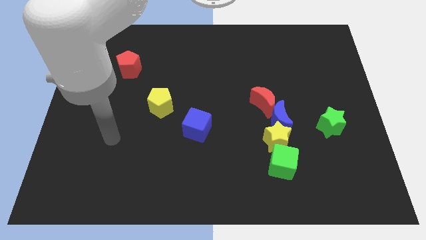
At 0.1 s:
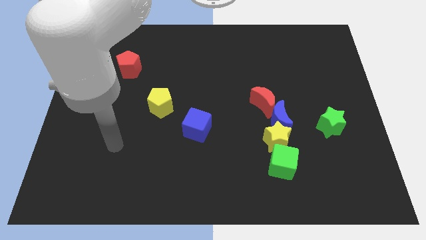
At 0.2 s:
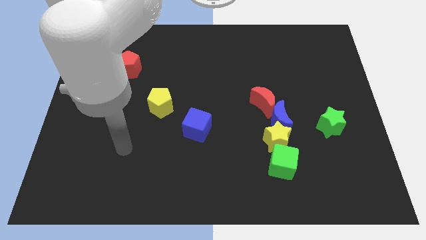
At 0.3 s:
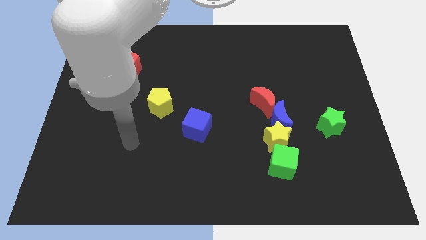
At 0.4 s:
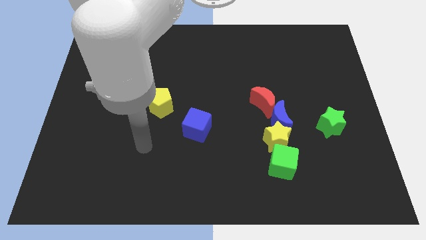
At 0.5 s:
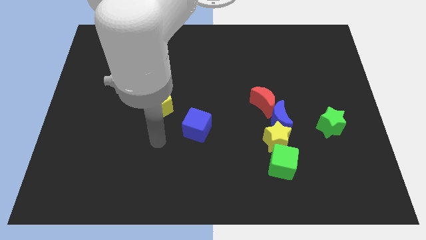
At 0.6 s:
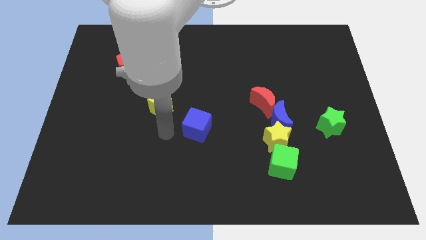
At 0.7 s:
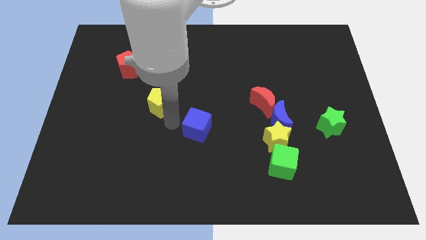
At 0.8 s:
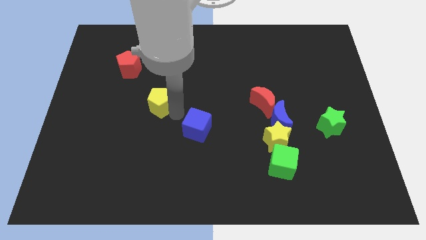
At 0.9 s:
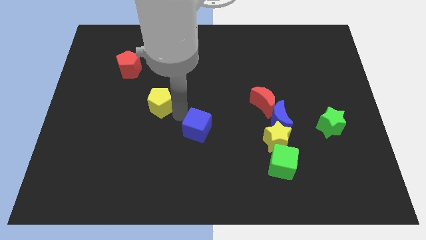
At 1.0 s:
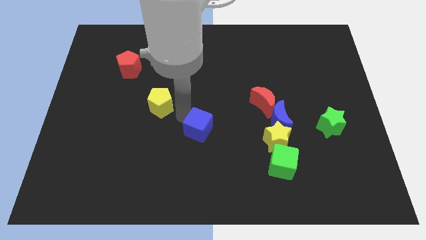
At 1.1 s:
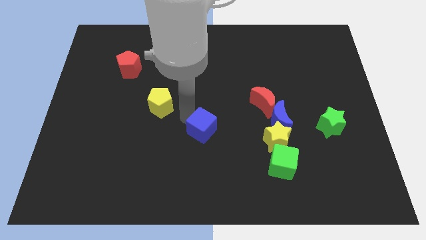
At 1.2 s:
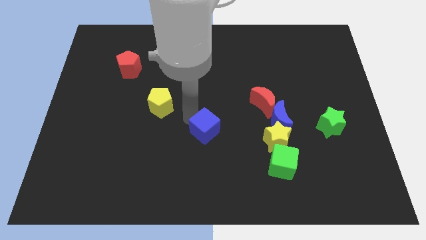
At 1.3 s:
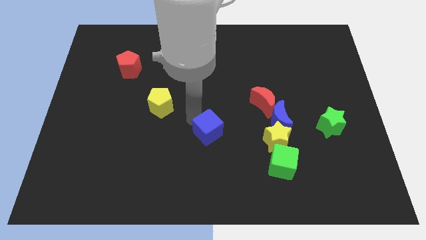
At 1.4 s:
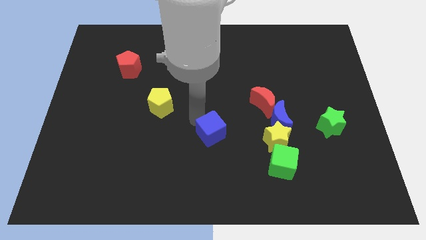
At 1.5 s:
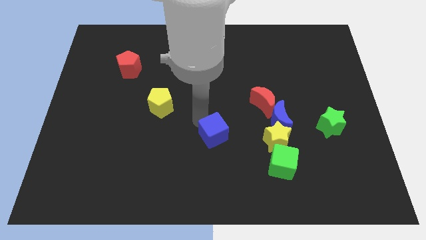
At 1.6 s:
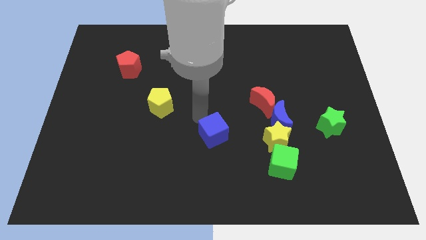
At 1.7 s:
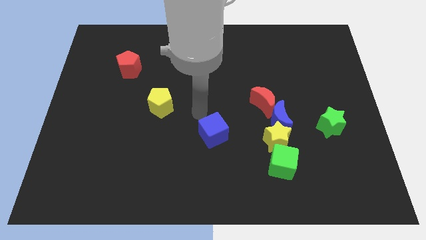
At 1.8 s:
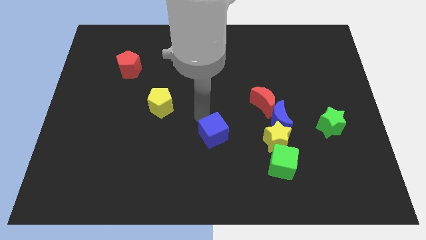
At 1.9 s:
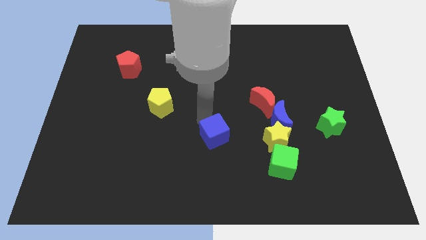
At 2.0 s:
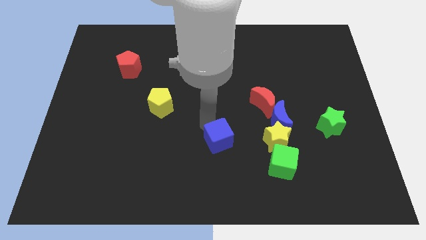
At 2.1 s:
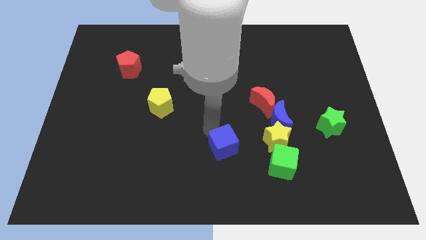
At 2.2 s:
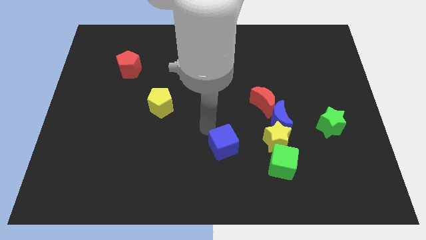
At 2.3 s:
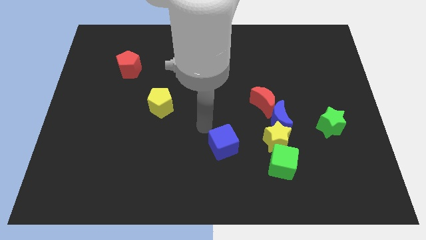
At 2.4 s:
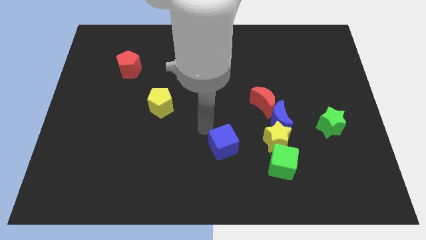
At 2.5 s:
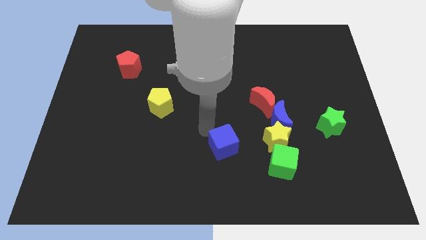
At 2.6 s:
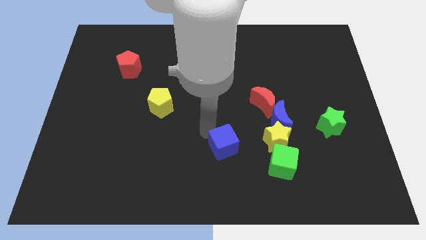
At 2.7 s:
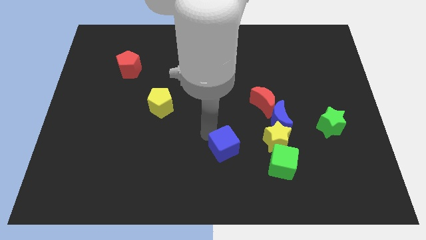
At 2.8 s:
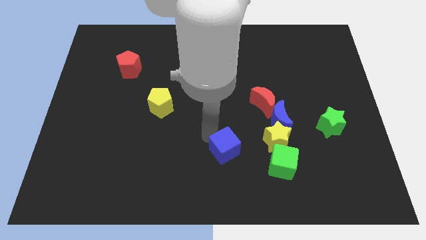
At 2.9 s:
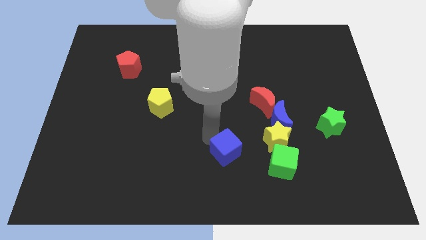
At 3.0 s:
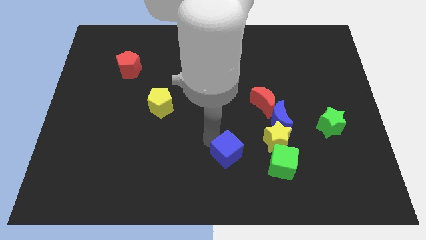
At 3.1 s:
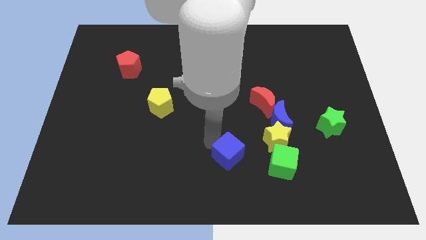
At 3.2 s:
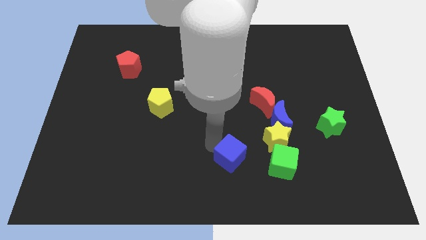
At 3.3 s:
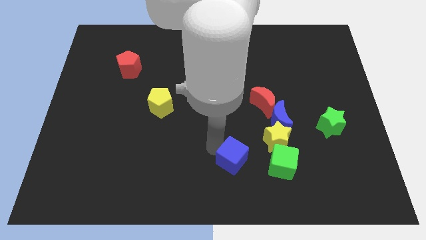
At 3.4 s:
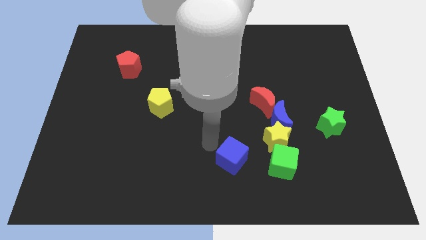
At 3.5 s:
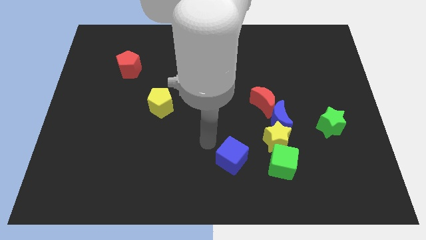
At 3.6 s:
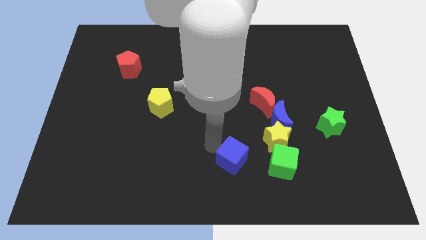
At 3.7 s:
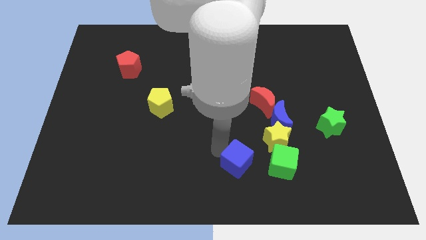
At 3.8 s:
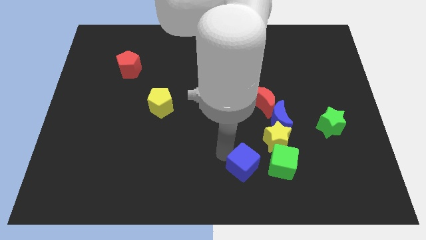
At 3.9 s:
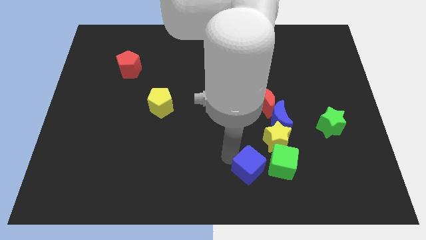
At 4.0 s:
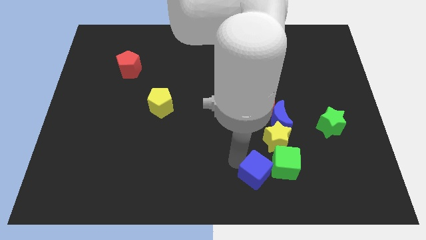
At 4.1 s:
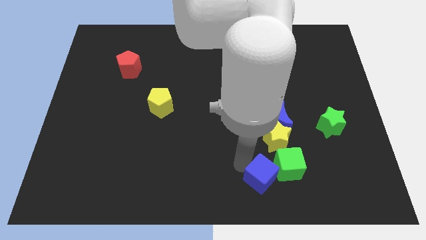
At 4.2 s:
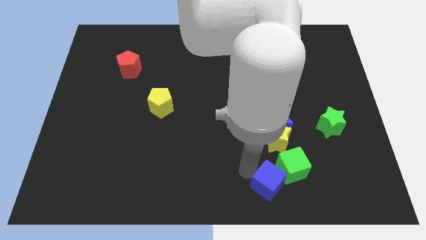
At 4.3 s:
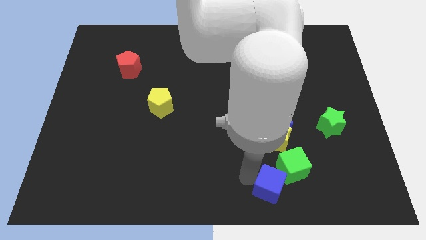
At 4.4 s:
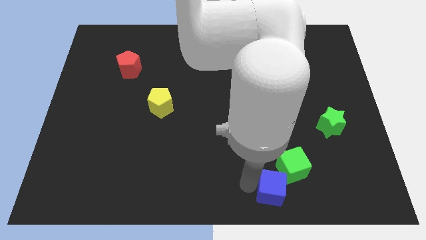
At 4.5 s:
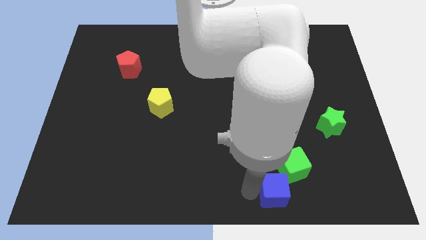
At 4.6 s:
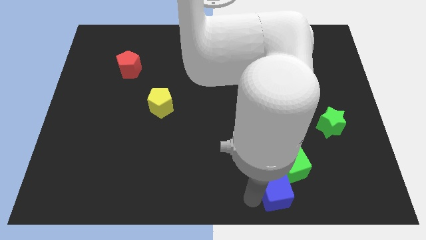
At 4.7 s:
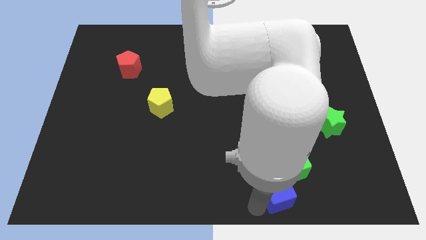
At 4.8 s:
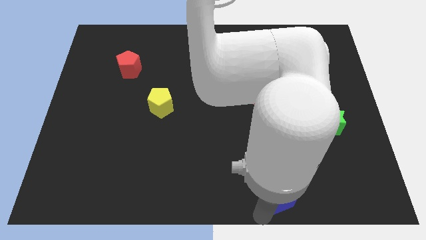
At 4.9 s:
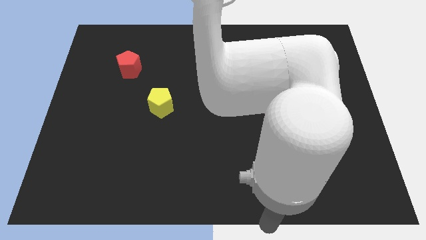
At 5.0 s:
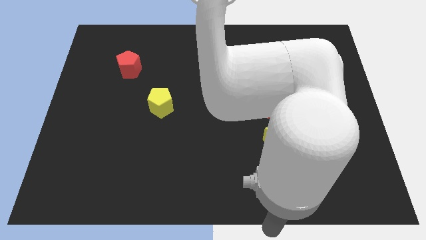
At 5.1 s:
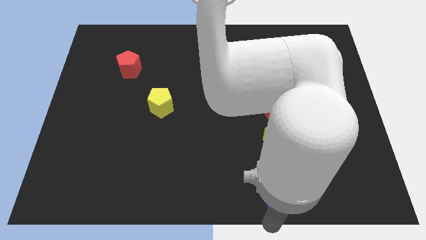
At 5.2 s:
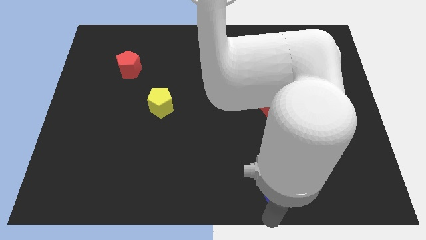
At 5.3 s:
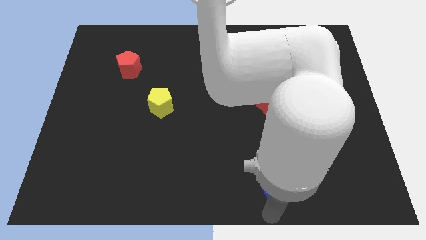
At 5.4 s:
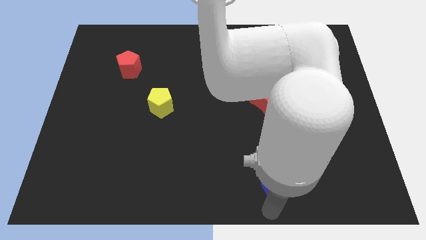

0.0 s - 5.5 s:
put the blue cube to the bottom side of the blue moon

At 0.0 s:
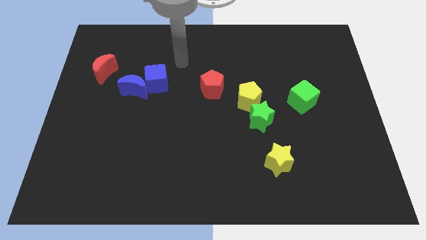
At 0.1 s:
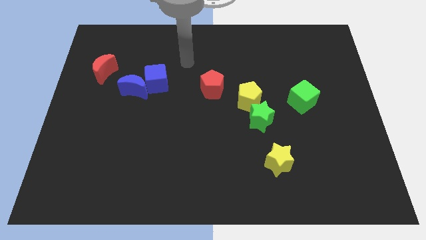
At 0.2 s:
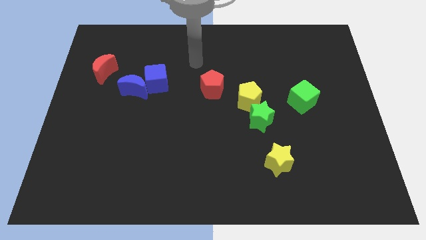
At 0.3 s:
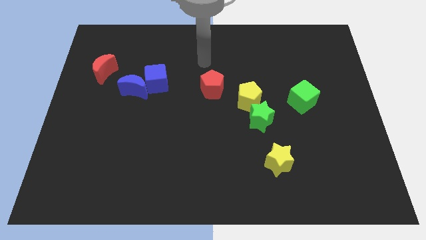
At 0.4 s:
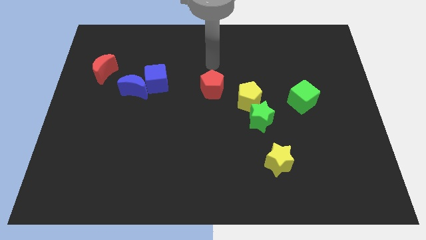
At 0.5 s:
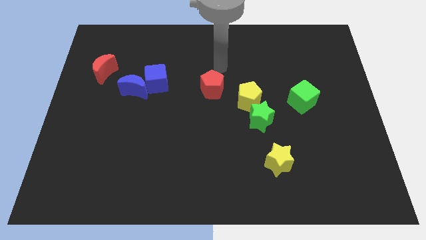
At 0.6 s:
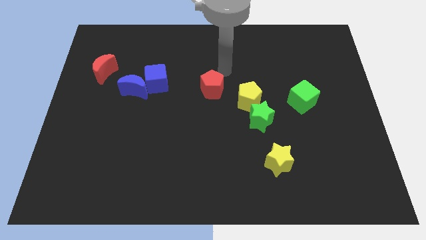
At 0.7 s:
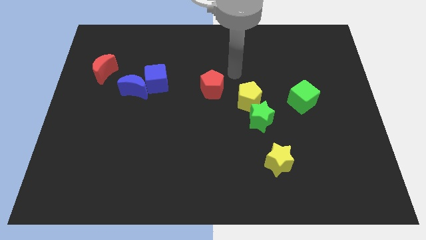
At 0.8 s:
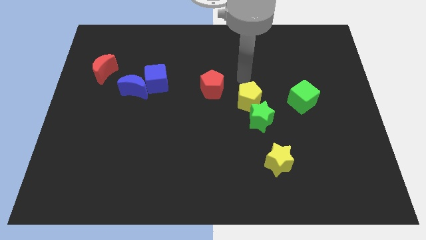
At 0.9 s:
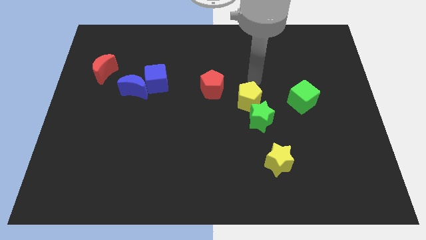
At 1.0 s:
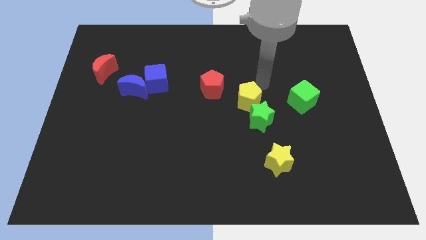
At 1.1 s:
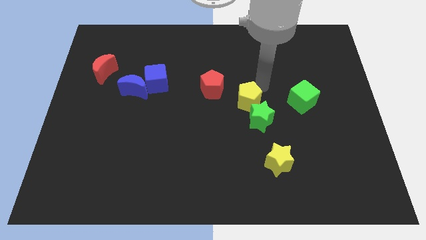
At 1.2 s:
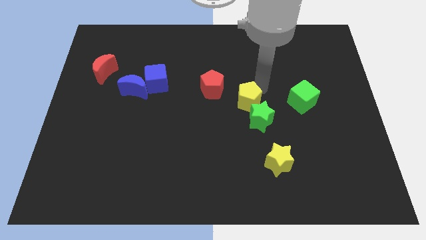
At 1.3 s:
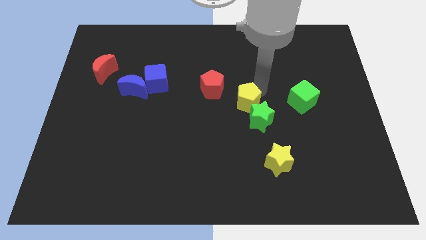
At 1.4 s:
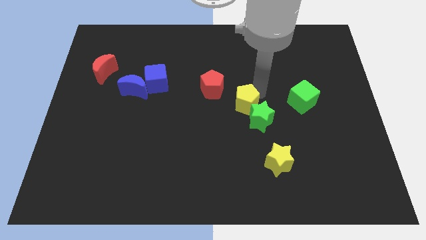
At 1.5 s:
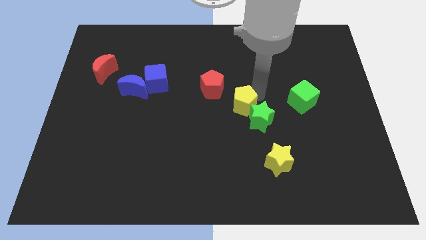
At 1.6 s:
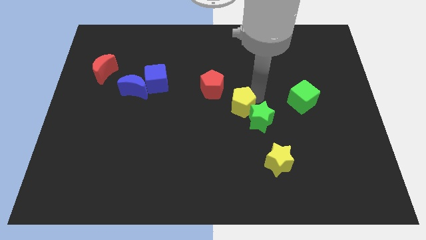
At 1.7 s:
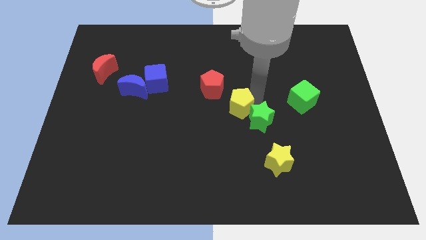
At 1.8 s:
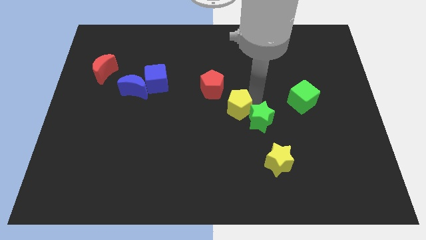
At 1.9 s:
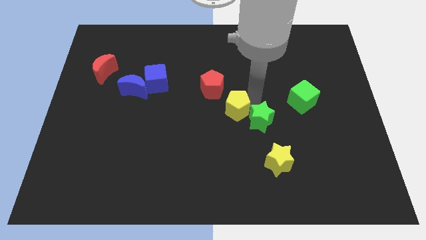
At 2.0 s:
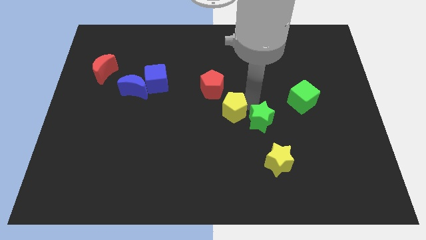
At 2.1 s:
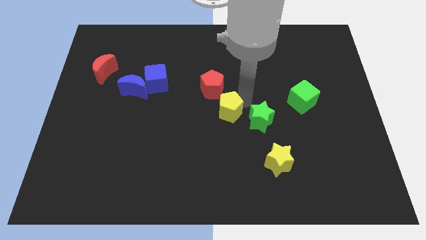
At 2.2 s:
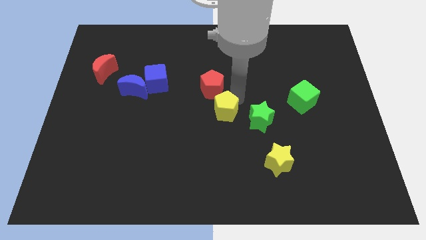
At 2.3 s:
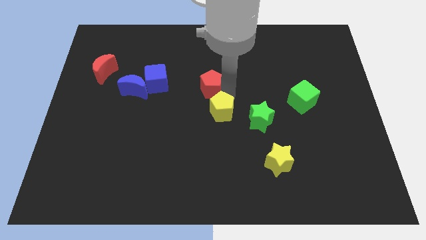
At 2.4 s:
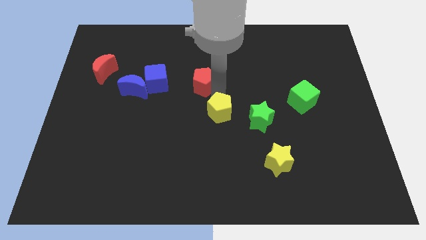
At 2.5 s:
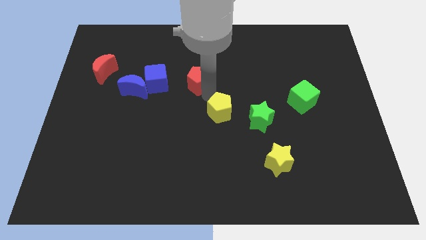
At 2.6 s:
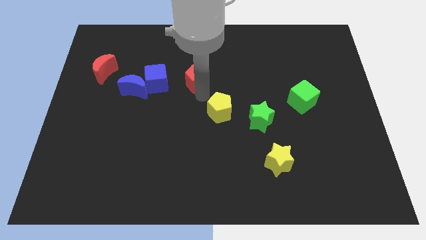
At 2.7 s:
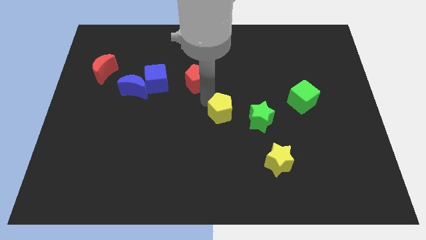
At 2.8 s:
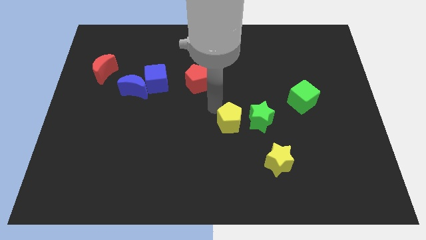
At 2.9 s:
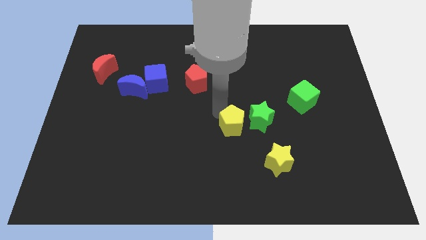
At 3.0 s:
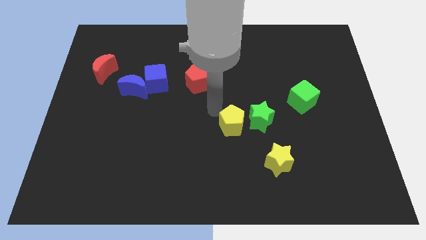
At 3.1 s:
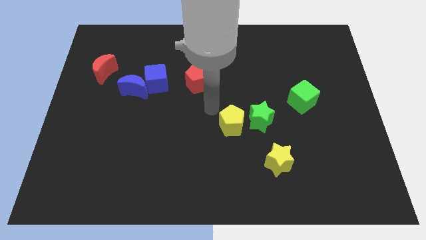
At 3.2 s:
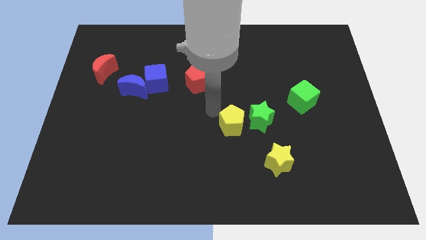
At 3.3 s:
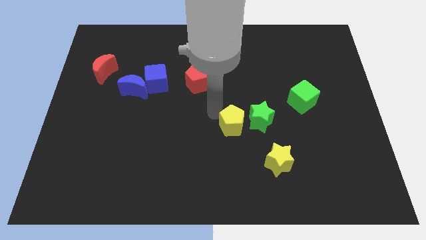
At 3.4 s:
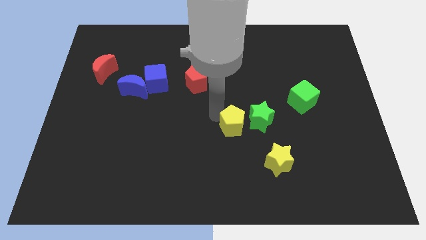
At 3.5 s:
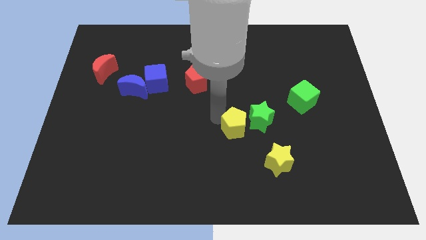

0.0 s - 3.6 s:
move the yellow pentagon to the top left of the yellow star
